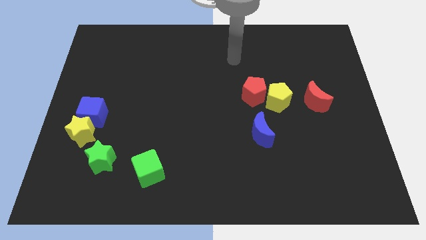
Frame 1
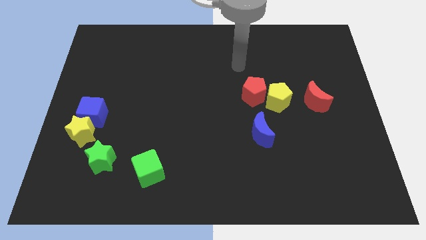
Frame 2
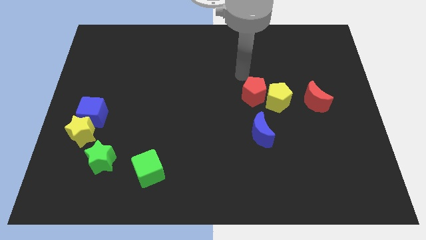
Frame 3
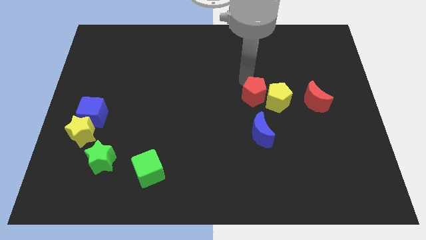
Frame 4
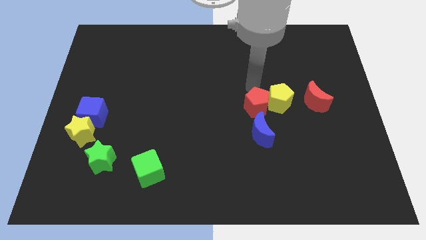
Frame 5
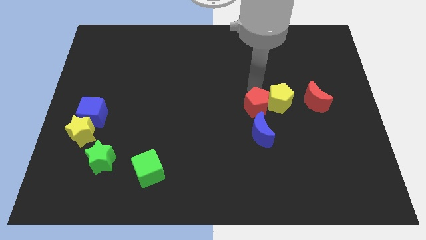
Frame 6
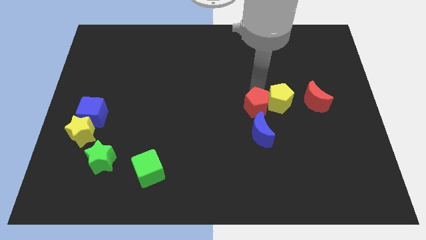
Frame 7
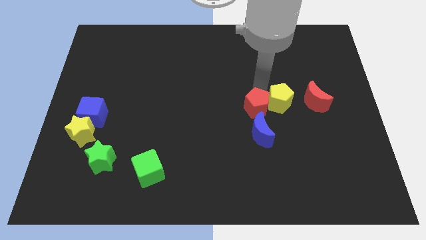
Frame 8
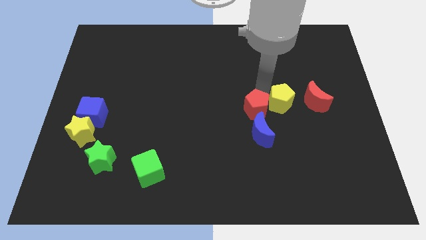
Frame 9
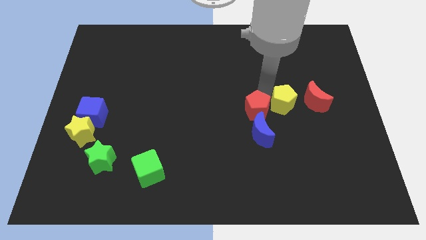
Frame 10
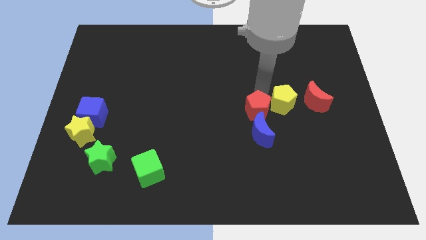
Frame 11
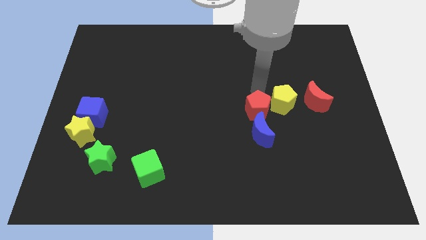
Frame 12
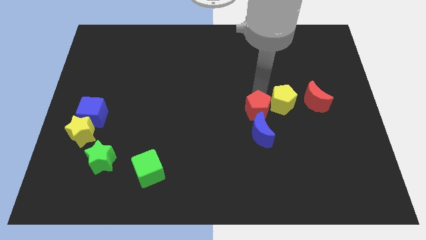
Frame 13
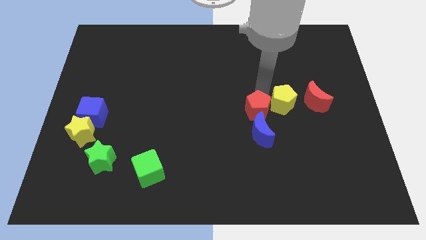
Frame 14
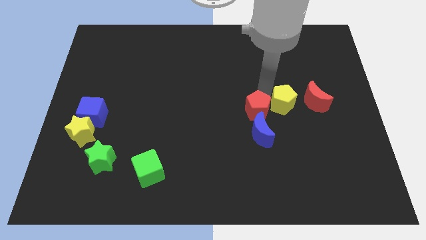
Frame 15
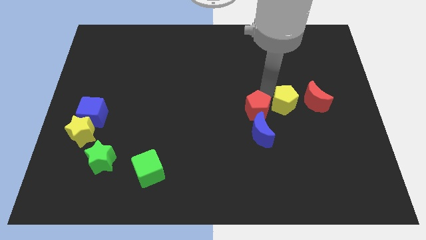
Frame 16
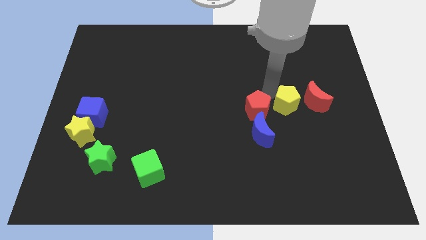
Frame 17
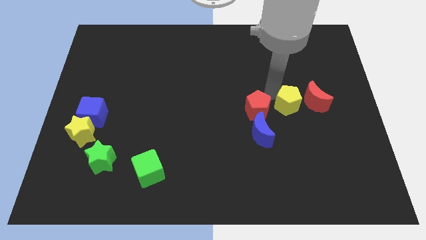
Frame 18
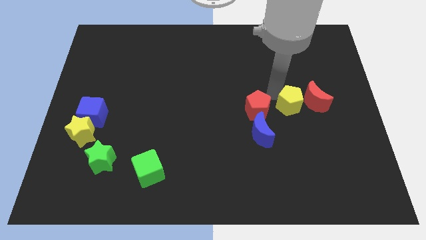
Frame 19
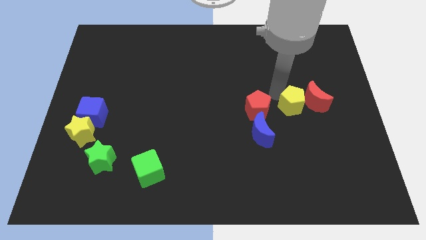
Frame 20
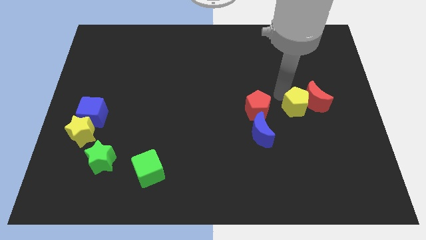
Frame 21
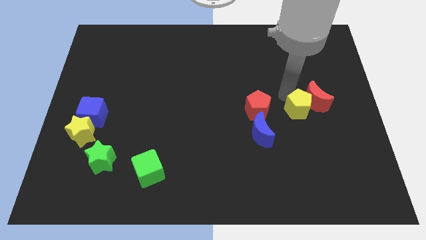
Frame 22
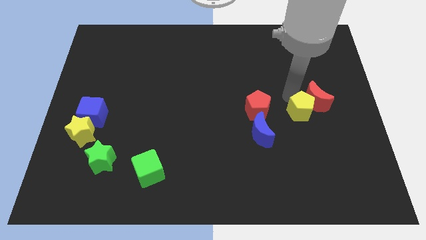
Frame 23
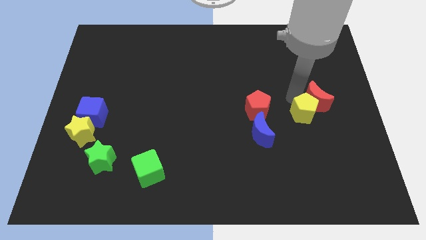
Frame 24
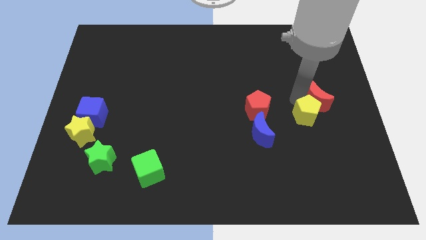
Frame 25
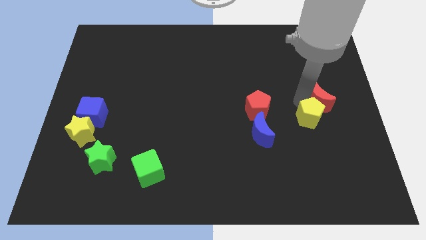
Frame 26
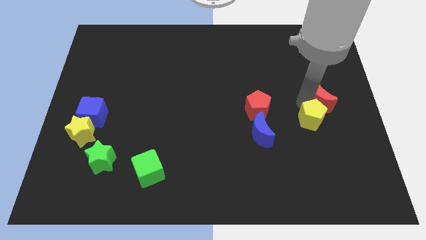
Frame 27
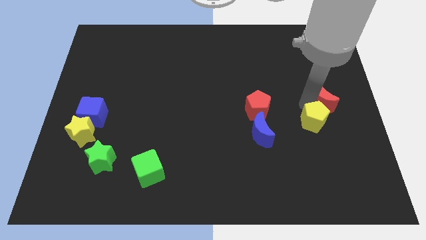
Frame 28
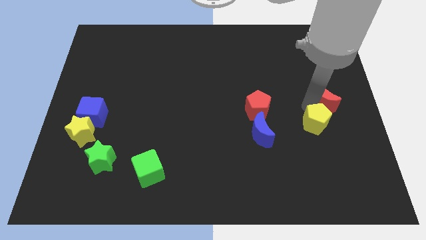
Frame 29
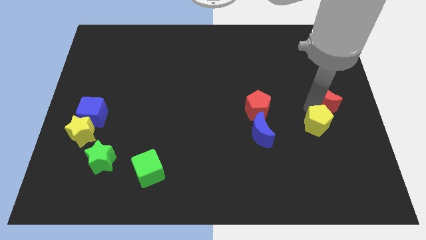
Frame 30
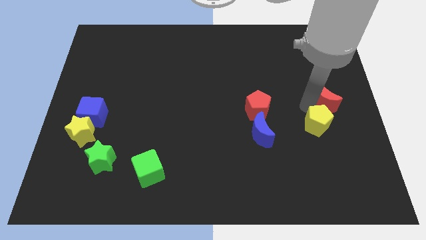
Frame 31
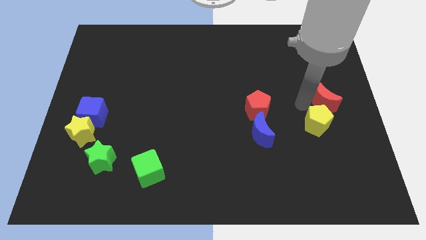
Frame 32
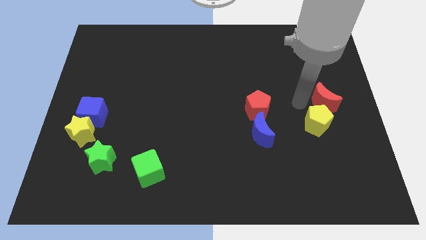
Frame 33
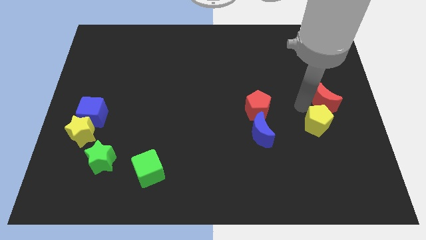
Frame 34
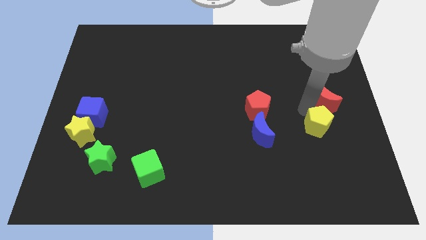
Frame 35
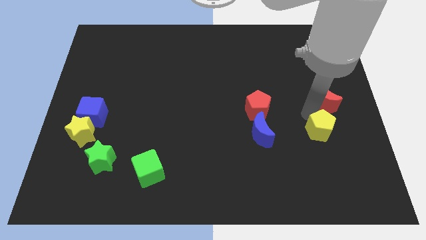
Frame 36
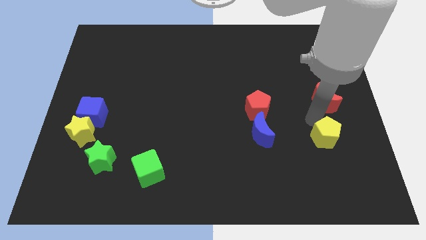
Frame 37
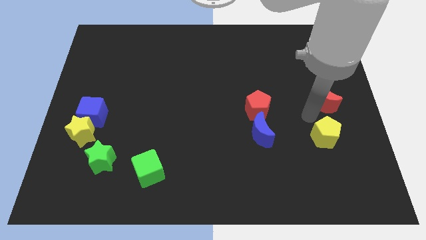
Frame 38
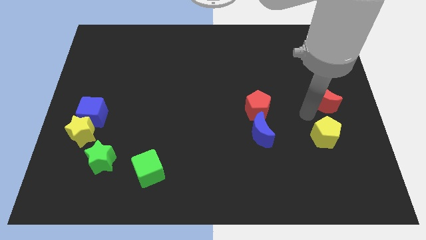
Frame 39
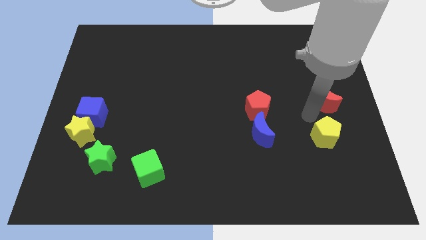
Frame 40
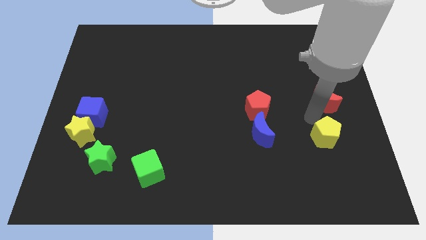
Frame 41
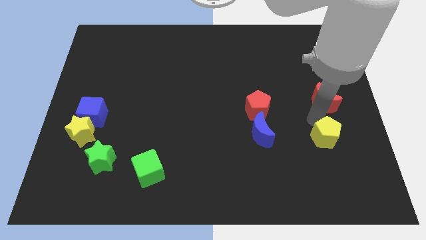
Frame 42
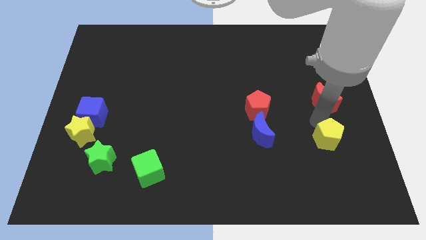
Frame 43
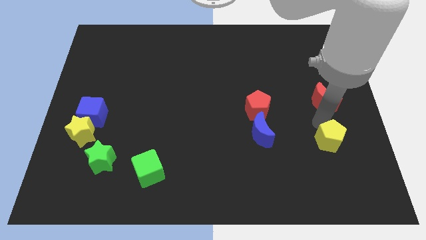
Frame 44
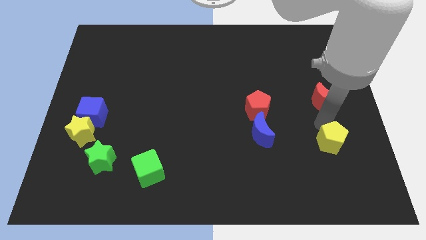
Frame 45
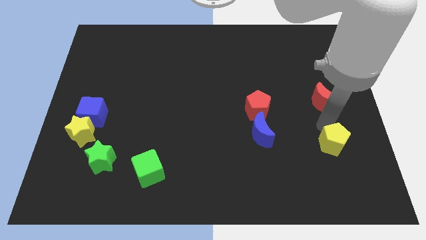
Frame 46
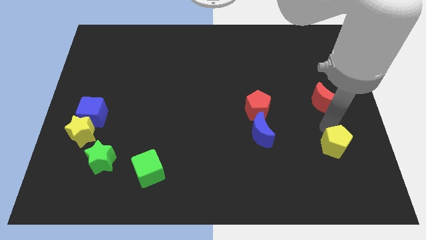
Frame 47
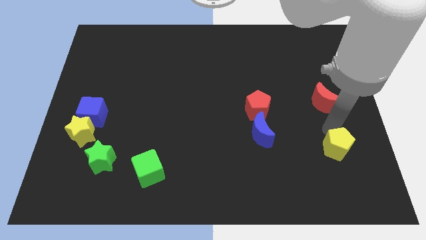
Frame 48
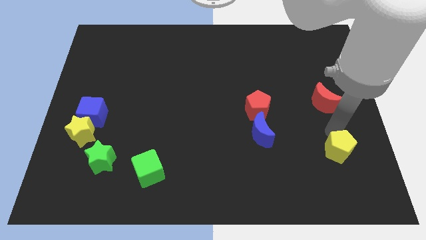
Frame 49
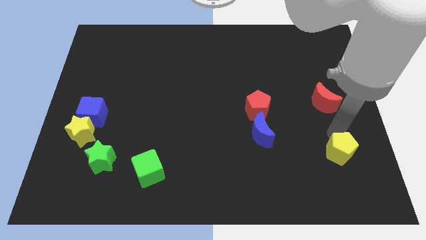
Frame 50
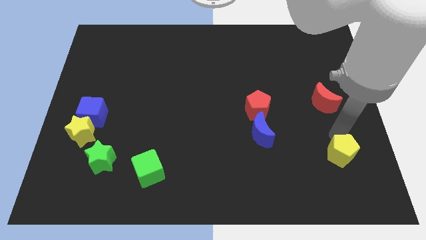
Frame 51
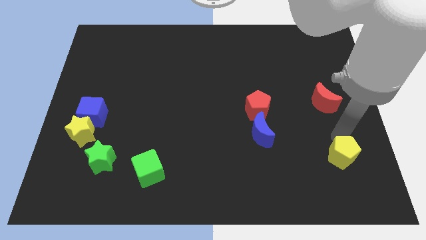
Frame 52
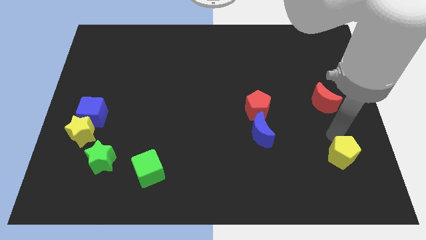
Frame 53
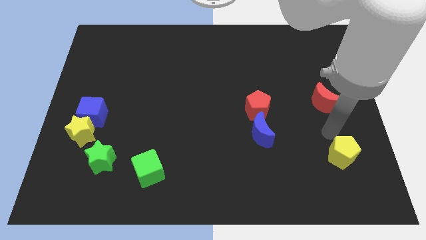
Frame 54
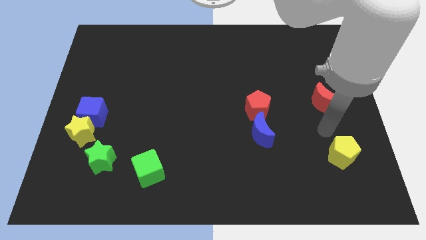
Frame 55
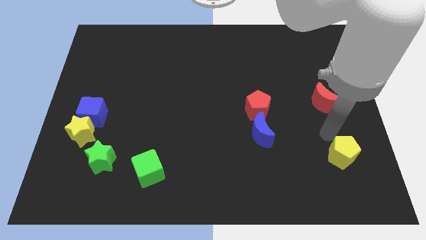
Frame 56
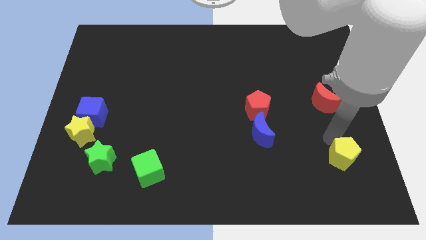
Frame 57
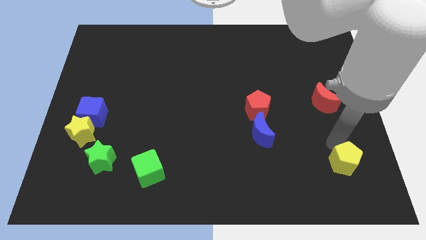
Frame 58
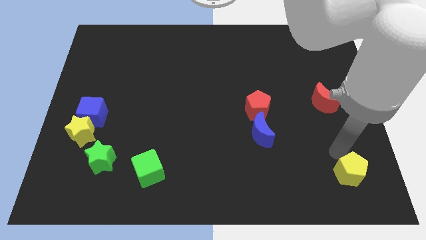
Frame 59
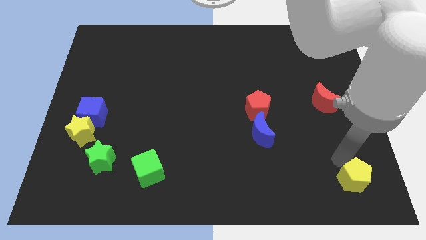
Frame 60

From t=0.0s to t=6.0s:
put the yellow pentagon to the bottom right
